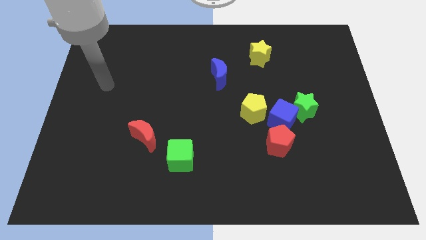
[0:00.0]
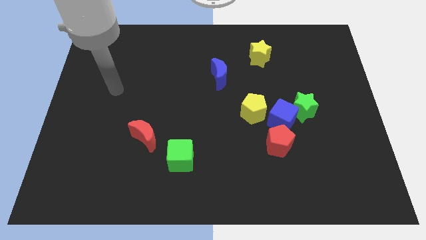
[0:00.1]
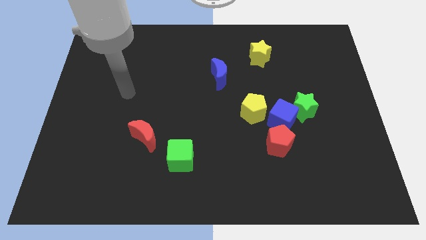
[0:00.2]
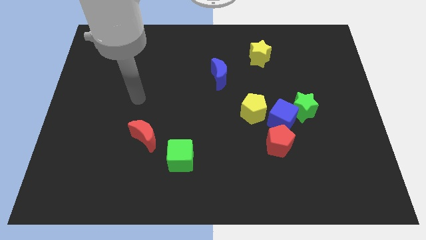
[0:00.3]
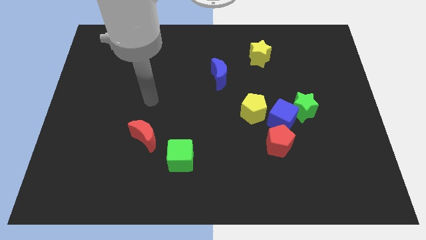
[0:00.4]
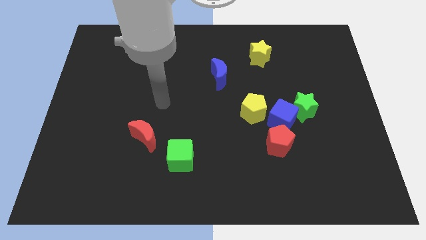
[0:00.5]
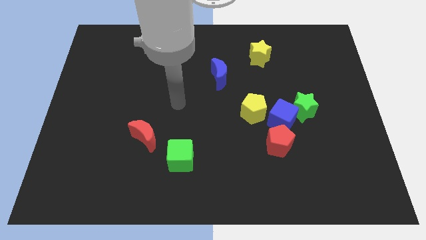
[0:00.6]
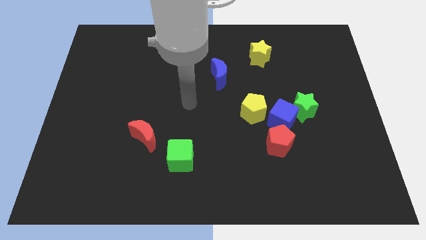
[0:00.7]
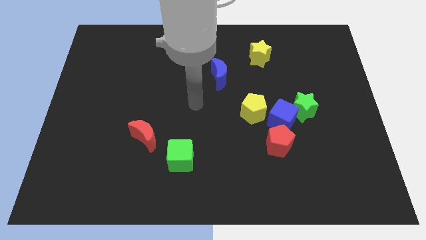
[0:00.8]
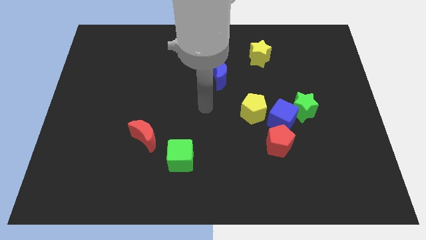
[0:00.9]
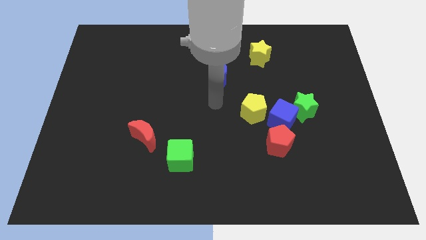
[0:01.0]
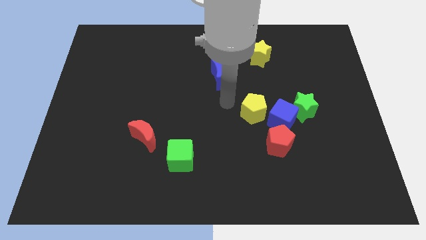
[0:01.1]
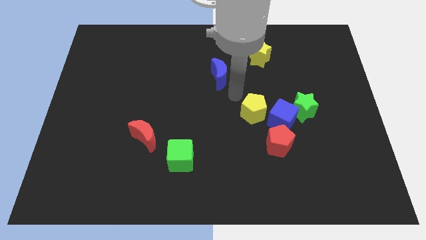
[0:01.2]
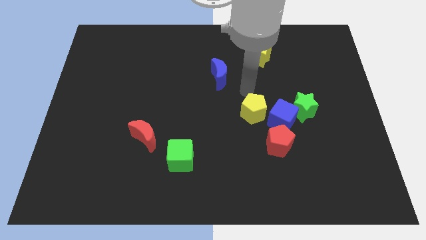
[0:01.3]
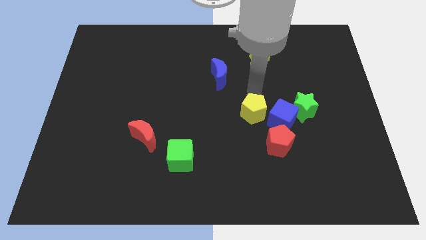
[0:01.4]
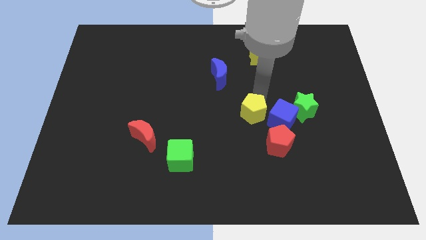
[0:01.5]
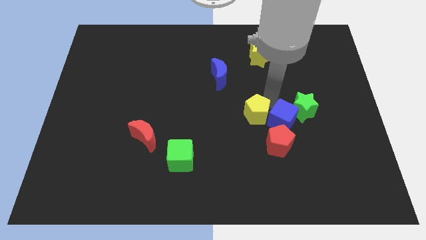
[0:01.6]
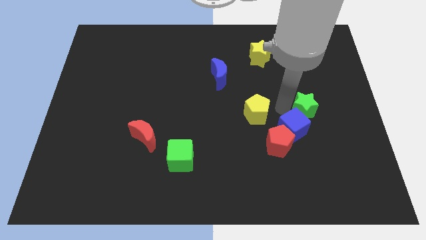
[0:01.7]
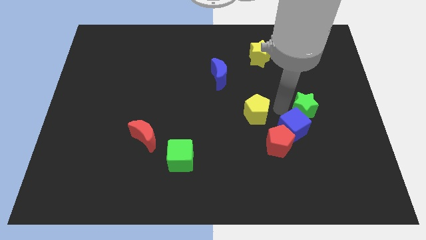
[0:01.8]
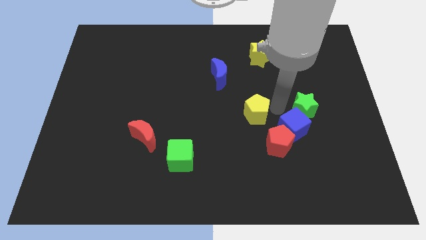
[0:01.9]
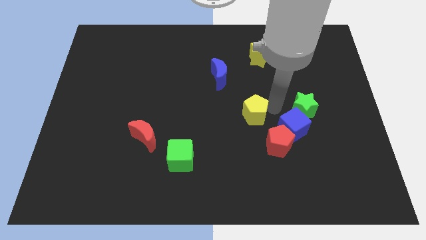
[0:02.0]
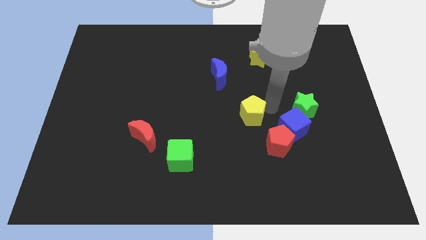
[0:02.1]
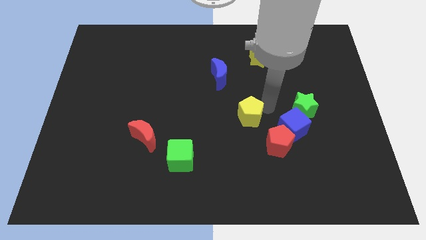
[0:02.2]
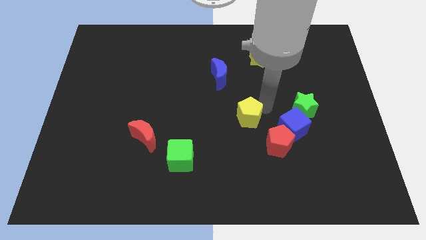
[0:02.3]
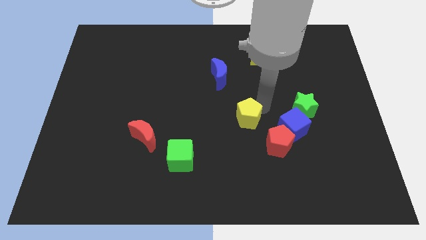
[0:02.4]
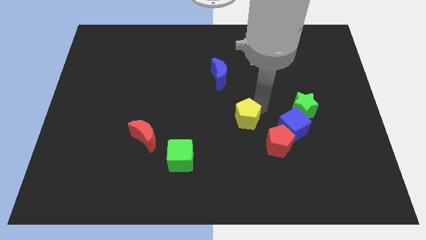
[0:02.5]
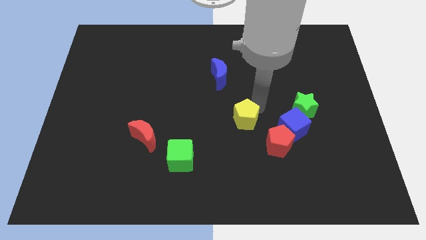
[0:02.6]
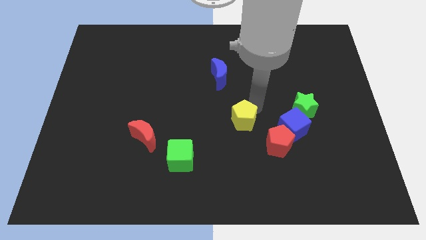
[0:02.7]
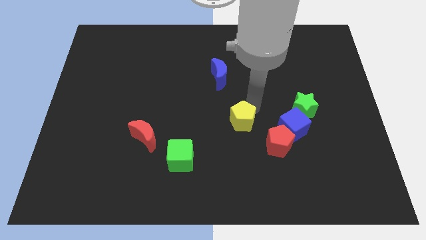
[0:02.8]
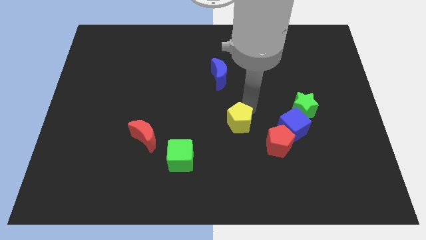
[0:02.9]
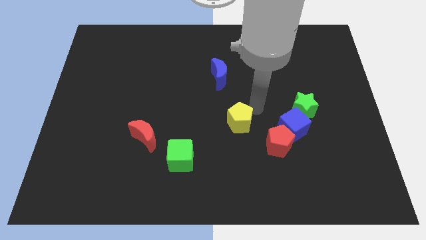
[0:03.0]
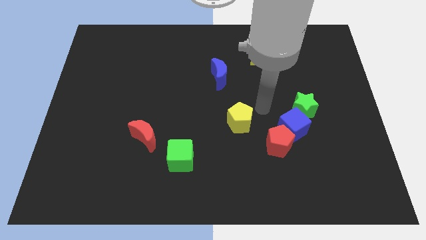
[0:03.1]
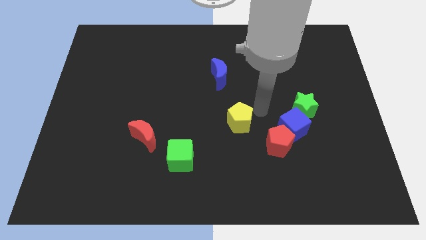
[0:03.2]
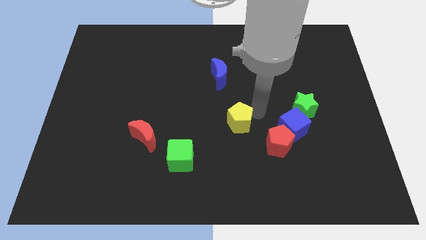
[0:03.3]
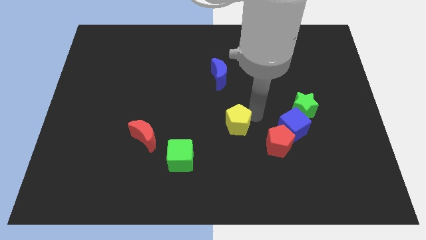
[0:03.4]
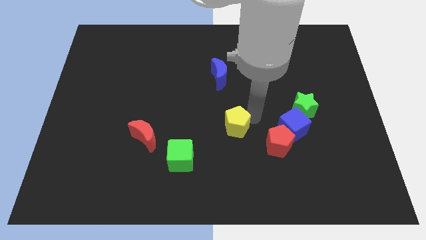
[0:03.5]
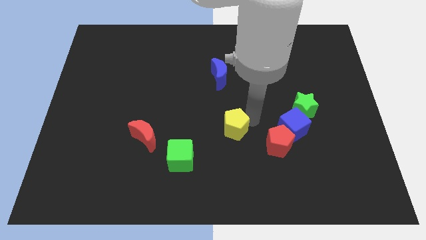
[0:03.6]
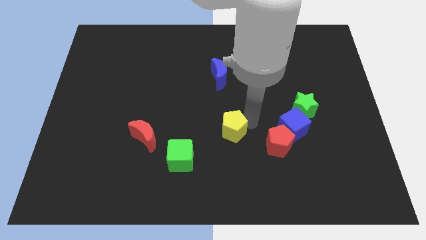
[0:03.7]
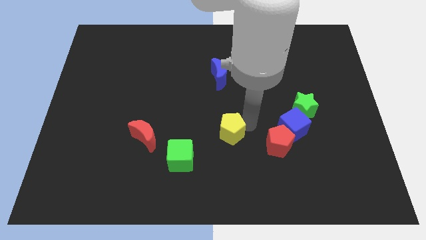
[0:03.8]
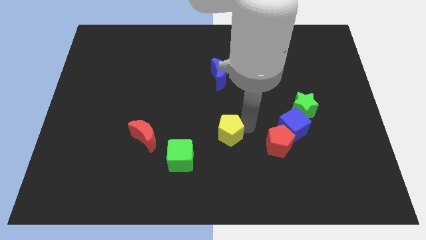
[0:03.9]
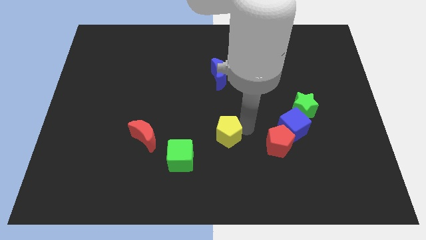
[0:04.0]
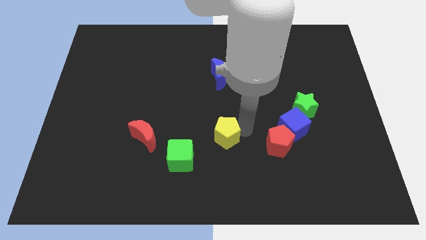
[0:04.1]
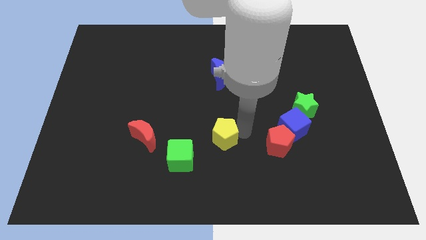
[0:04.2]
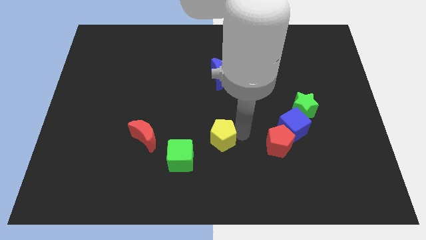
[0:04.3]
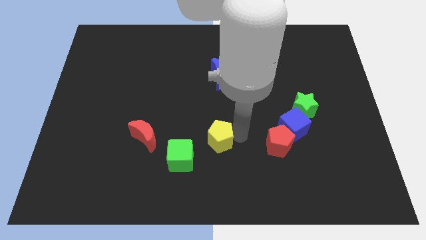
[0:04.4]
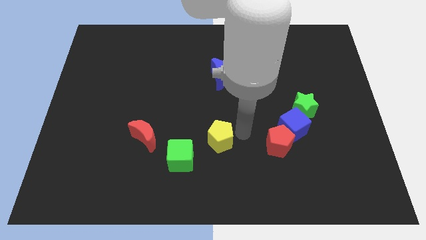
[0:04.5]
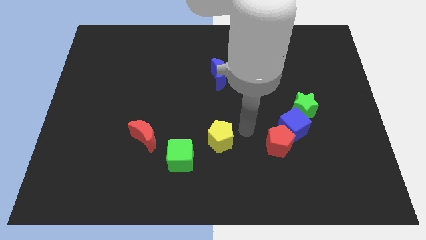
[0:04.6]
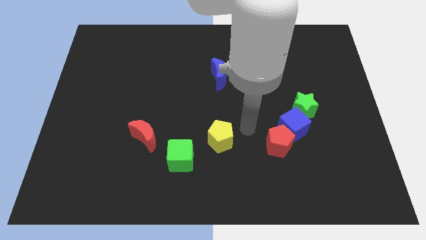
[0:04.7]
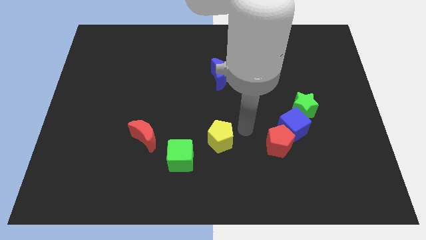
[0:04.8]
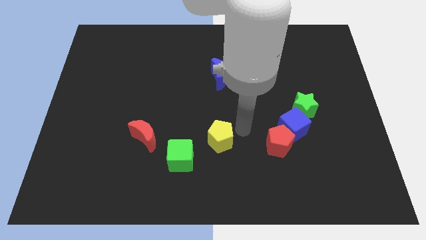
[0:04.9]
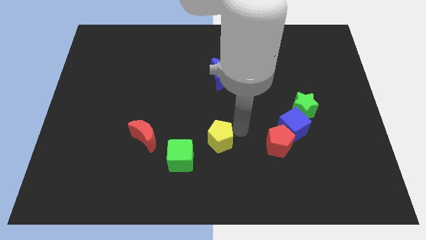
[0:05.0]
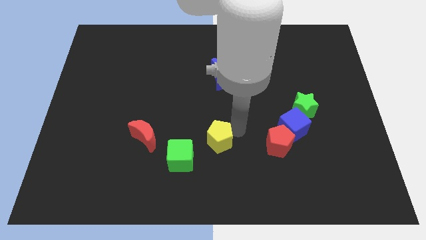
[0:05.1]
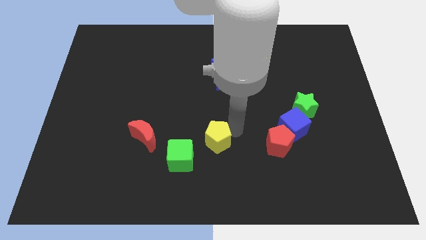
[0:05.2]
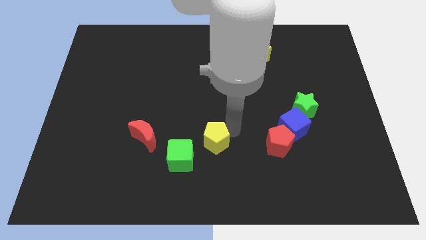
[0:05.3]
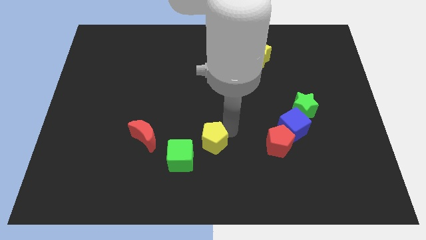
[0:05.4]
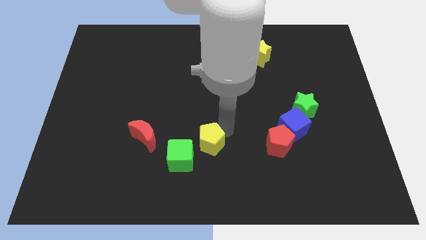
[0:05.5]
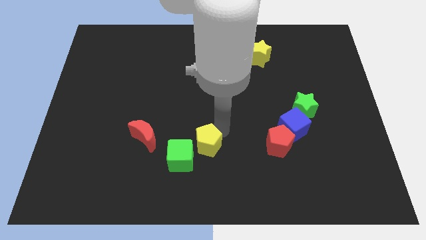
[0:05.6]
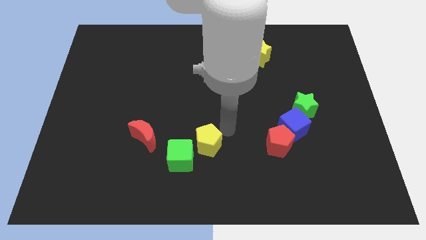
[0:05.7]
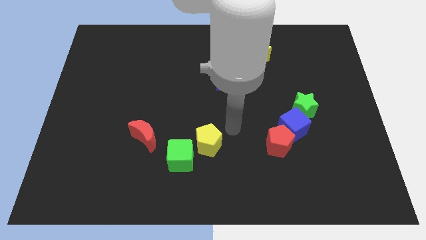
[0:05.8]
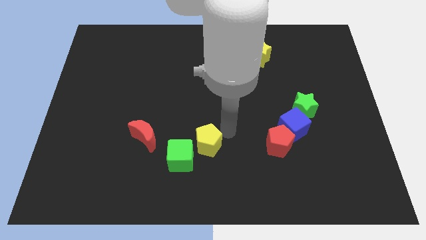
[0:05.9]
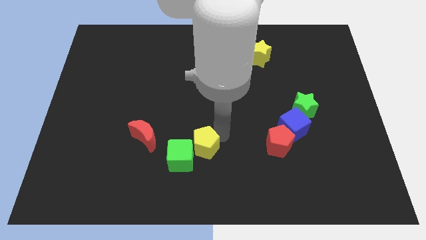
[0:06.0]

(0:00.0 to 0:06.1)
push the yellow pentagon next to the green cube

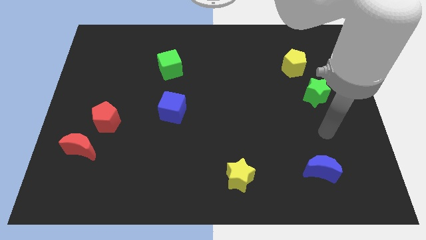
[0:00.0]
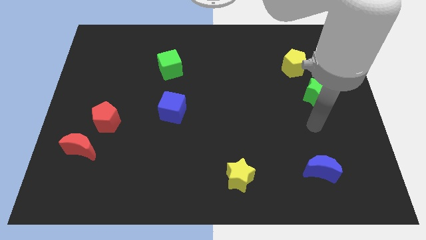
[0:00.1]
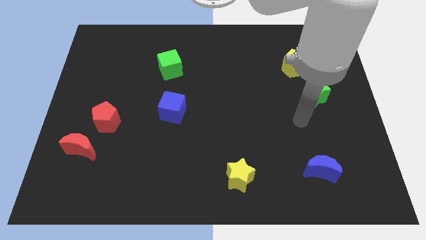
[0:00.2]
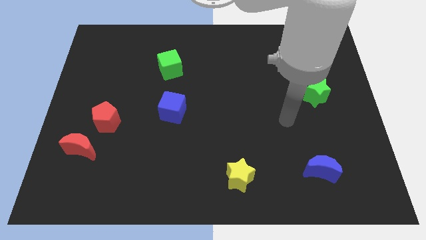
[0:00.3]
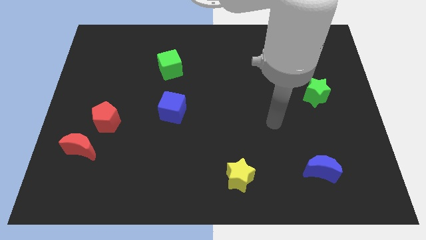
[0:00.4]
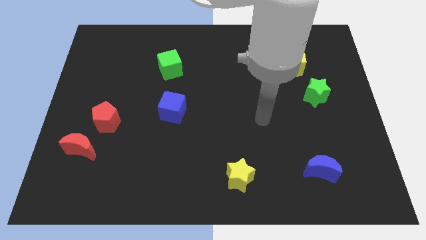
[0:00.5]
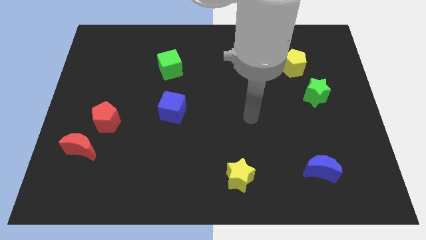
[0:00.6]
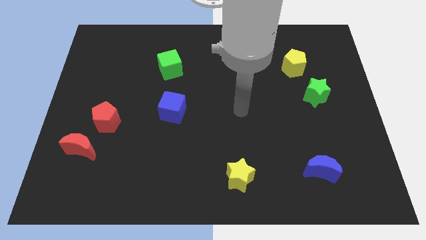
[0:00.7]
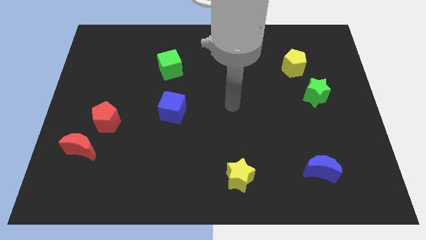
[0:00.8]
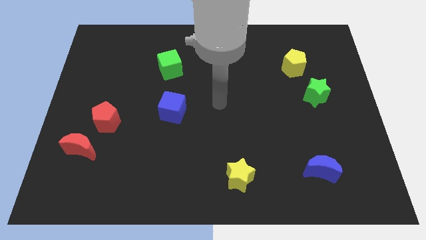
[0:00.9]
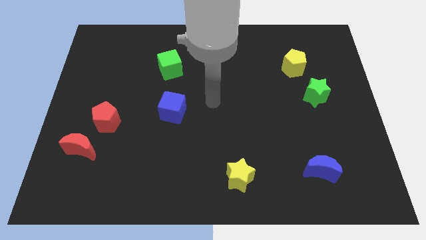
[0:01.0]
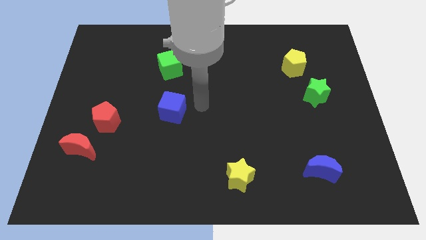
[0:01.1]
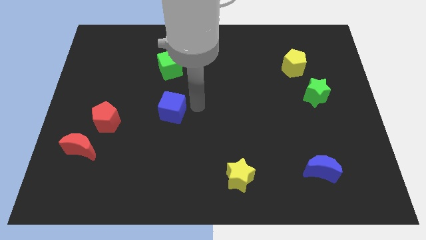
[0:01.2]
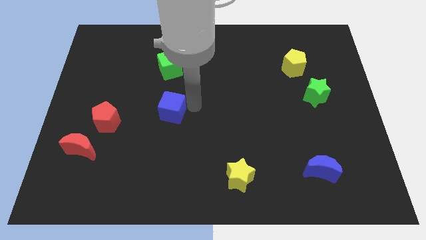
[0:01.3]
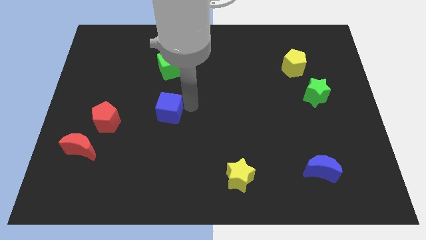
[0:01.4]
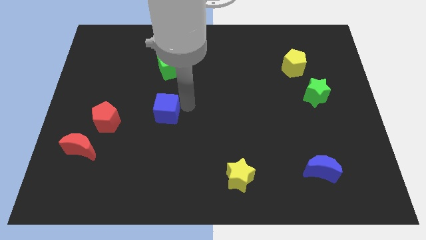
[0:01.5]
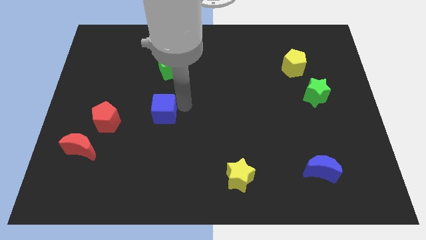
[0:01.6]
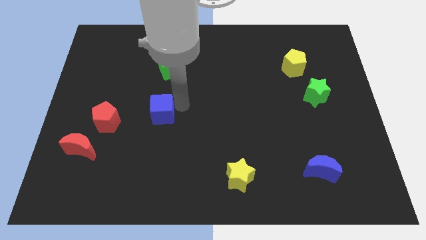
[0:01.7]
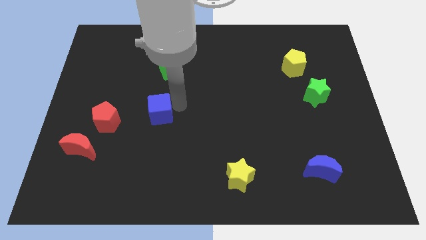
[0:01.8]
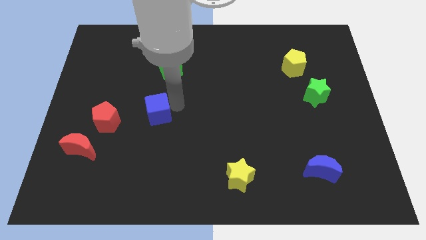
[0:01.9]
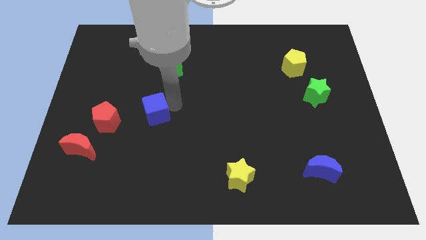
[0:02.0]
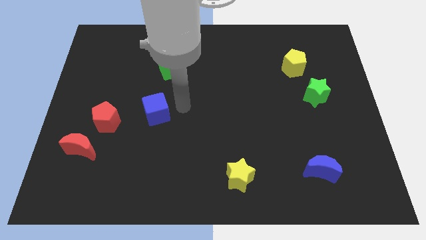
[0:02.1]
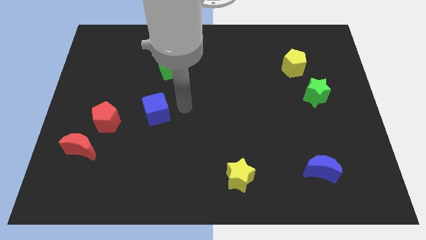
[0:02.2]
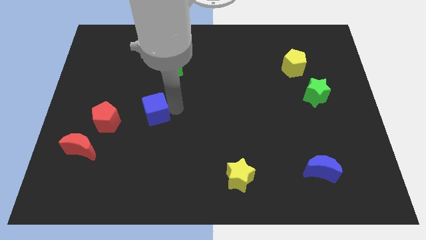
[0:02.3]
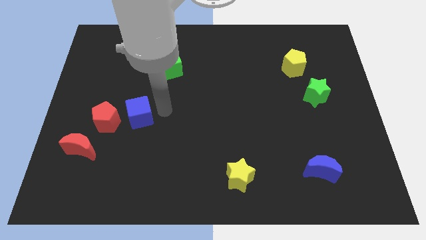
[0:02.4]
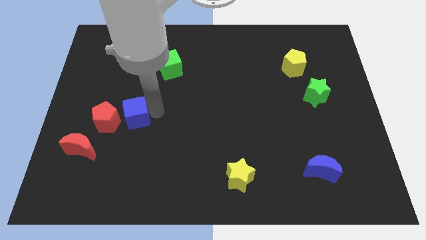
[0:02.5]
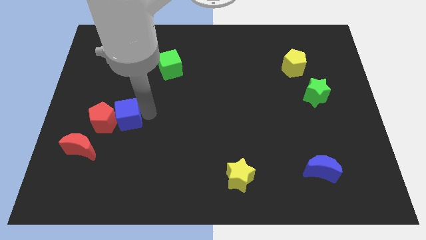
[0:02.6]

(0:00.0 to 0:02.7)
put the blue cube next to the red pentagon
